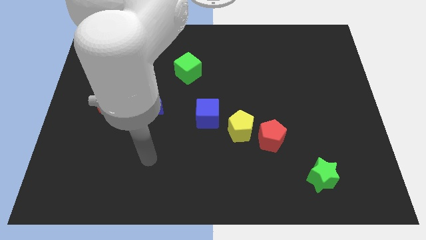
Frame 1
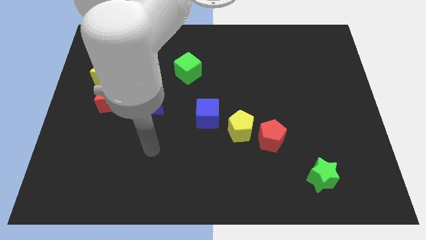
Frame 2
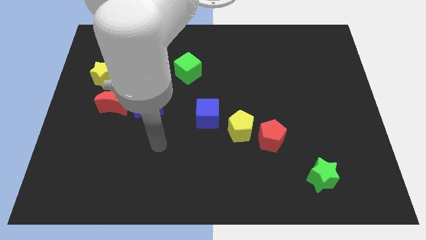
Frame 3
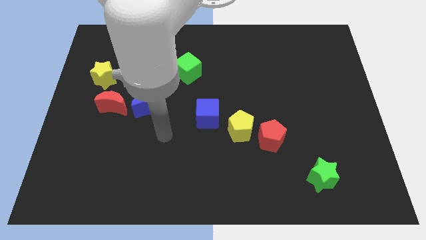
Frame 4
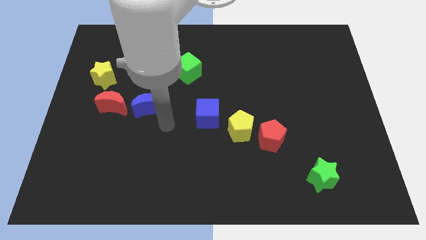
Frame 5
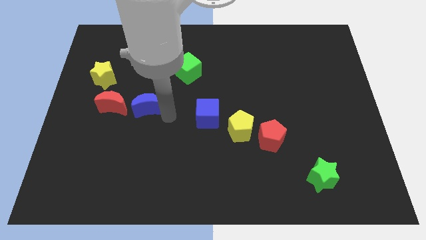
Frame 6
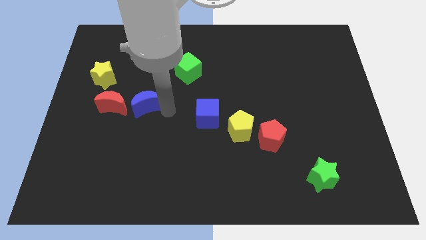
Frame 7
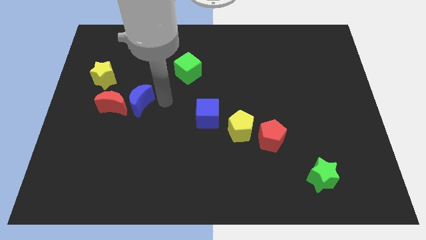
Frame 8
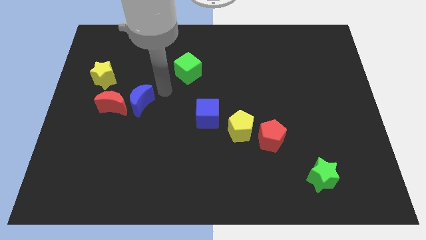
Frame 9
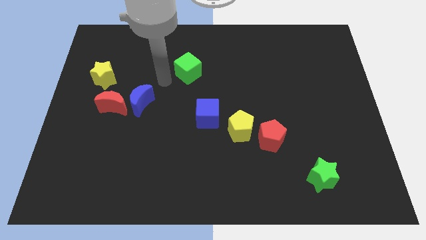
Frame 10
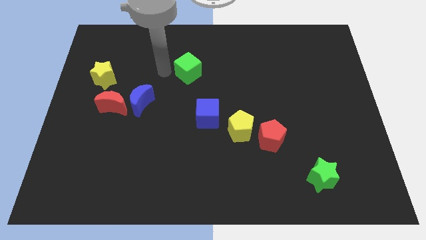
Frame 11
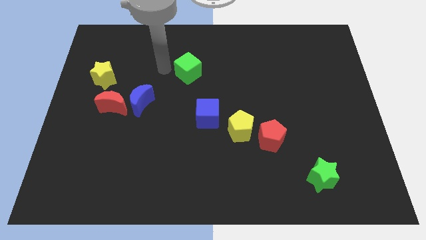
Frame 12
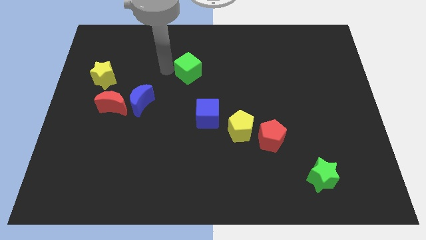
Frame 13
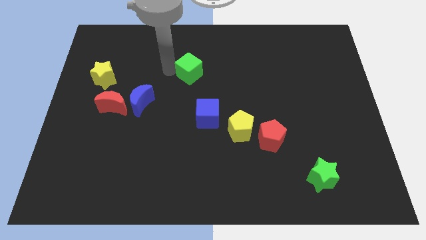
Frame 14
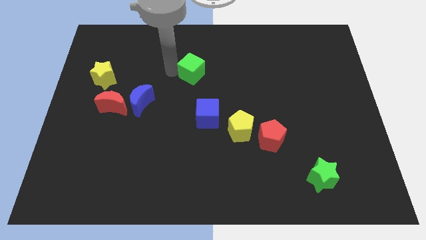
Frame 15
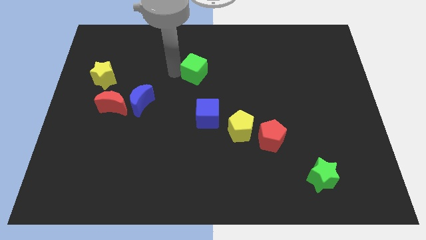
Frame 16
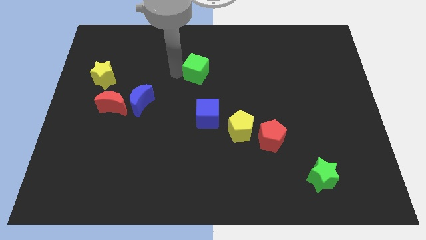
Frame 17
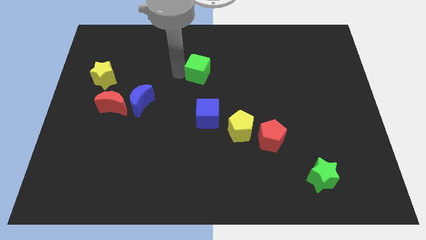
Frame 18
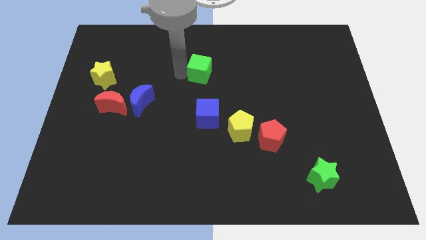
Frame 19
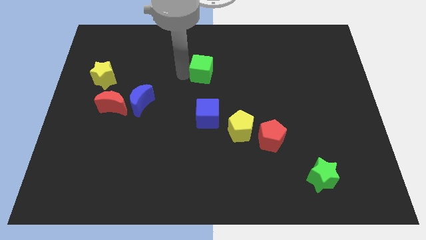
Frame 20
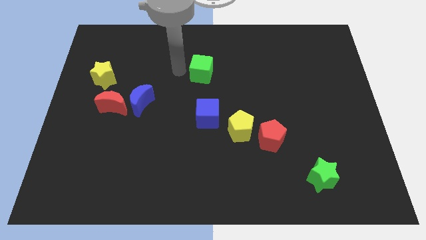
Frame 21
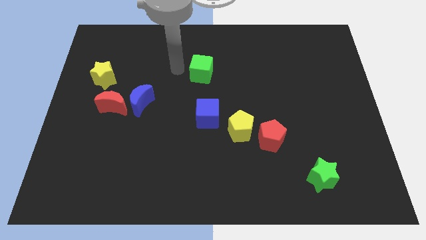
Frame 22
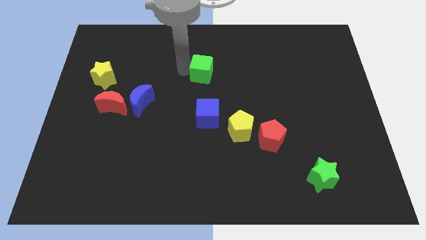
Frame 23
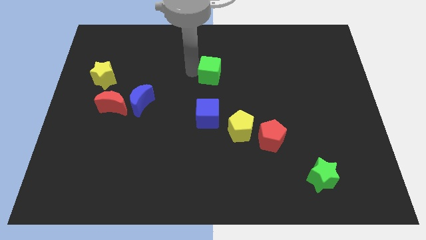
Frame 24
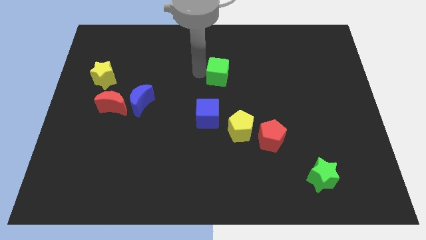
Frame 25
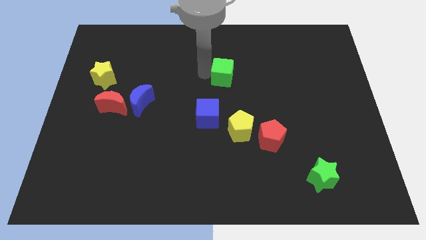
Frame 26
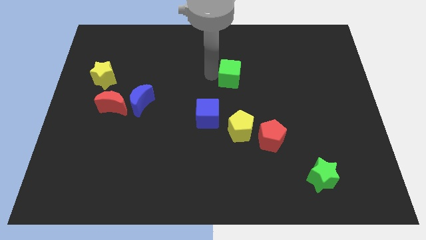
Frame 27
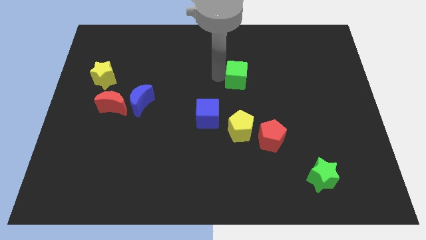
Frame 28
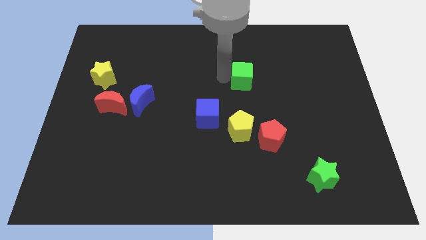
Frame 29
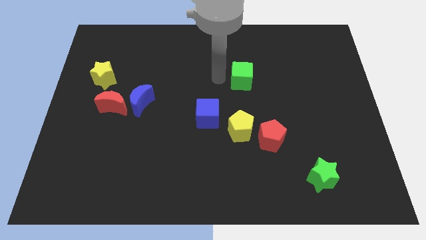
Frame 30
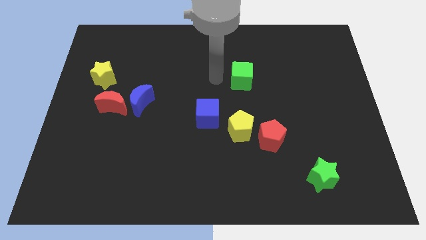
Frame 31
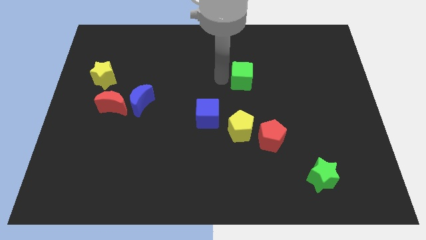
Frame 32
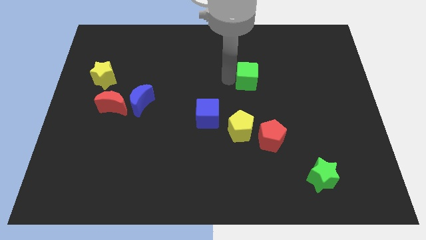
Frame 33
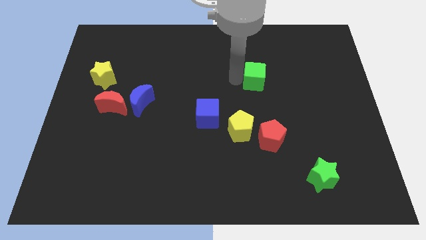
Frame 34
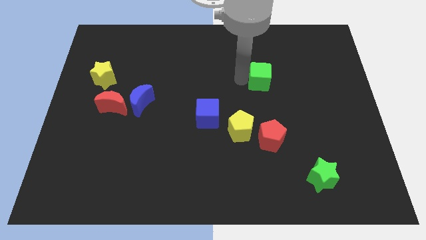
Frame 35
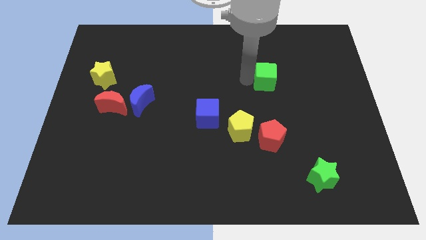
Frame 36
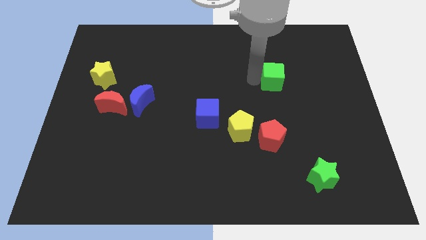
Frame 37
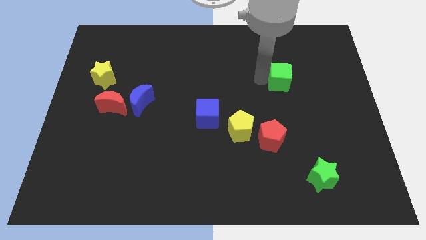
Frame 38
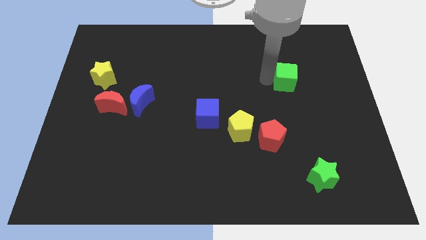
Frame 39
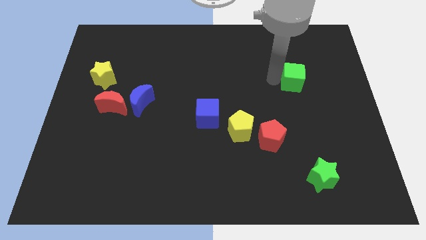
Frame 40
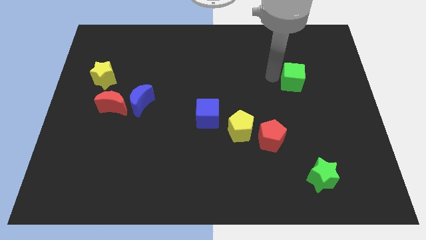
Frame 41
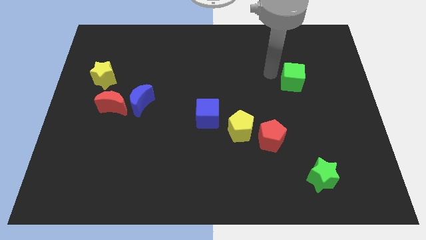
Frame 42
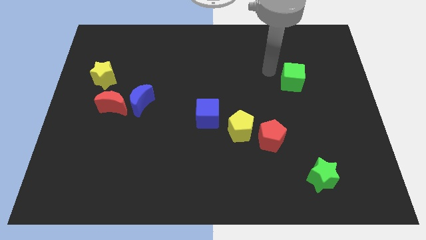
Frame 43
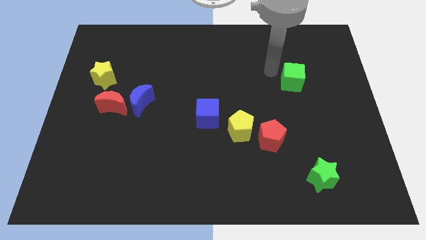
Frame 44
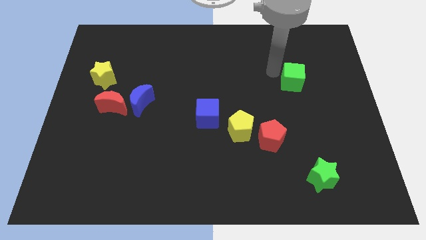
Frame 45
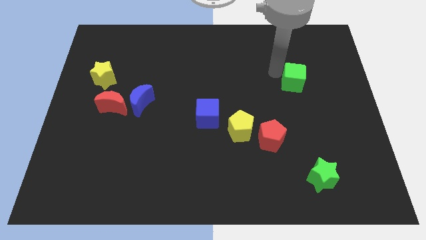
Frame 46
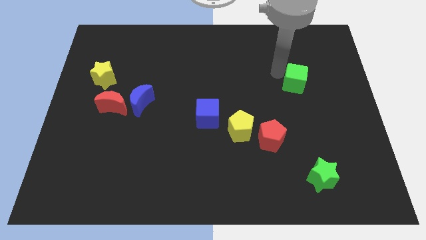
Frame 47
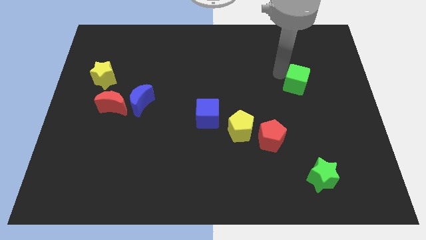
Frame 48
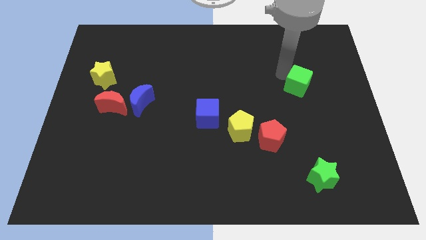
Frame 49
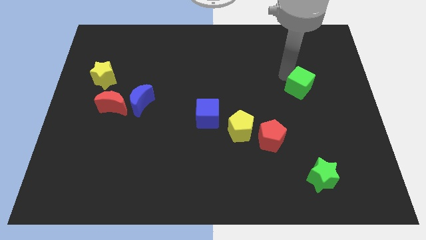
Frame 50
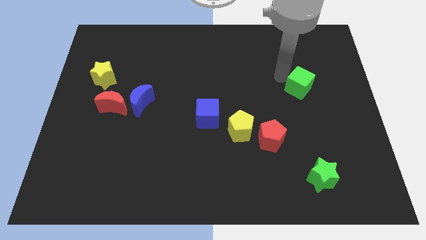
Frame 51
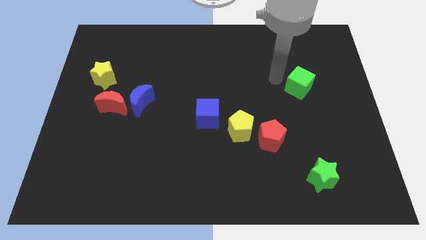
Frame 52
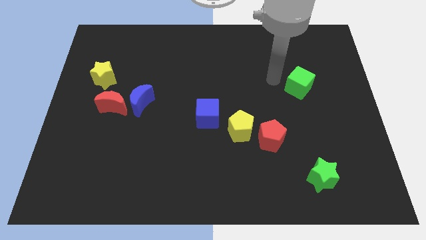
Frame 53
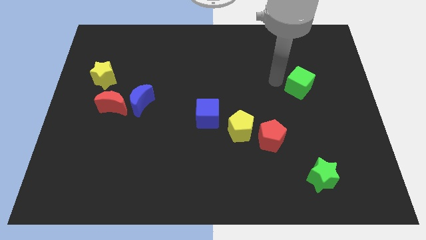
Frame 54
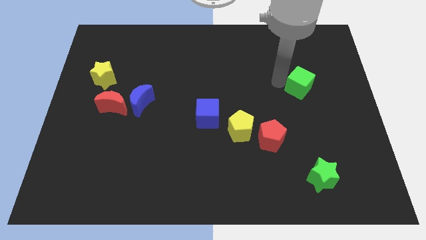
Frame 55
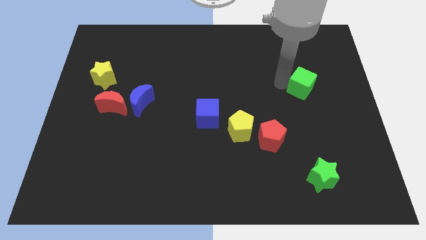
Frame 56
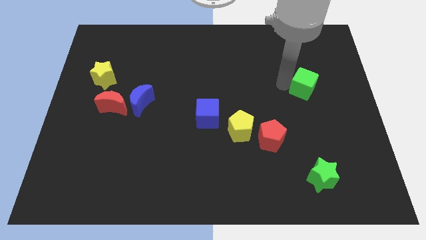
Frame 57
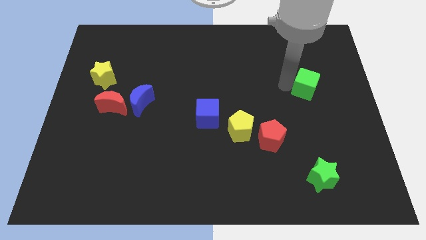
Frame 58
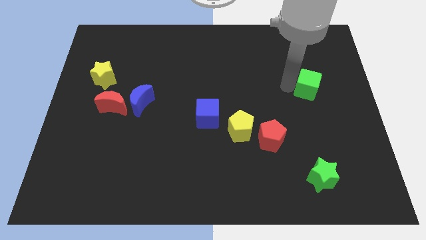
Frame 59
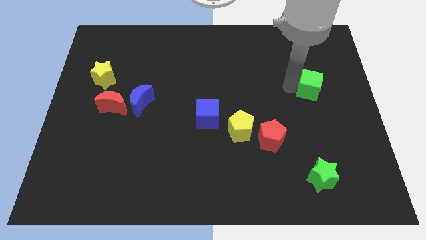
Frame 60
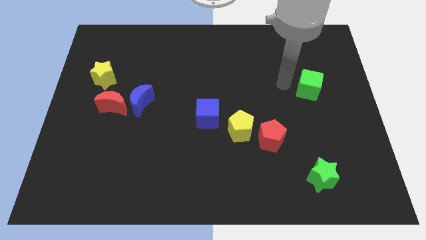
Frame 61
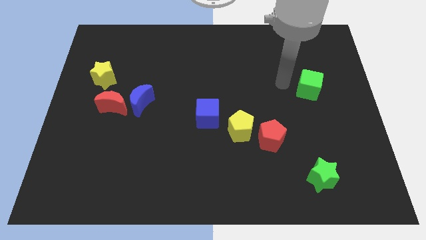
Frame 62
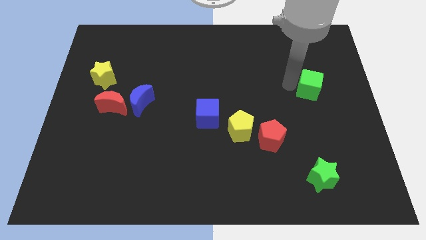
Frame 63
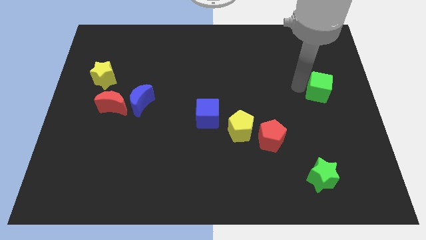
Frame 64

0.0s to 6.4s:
move the green cube to the center right
